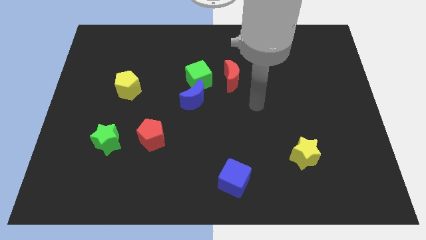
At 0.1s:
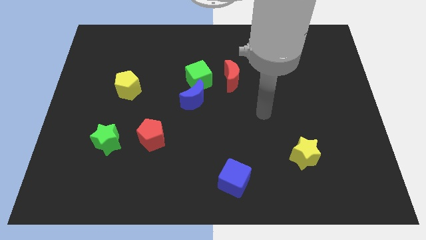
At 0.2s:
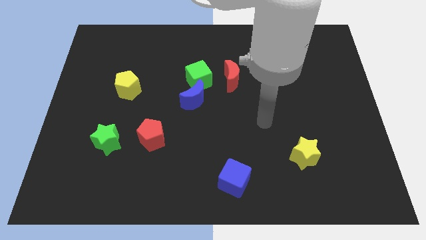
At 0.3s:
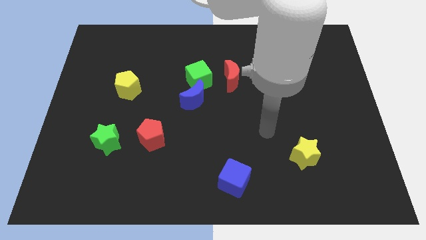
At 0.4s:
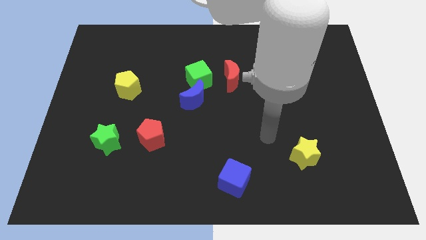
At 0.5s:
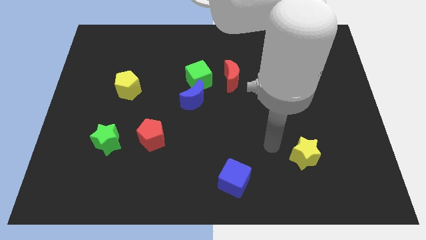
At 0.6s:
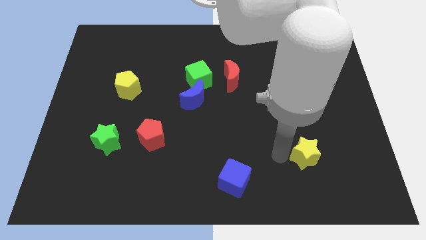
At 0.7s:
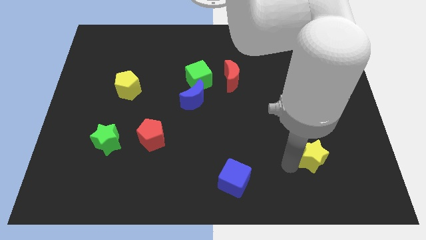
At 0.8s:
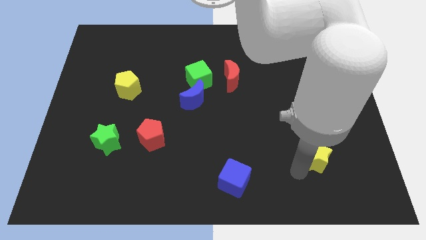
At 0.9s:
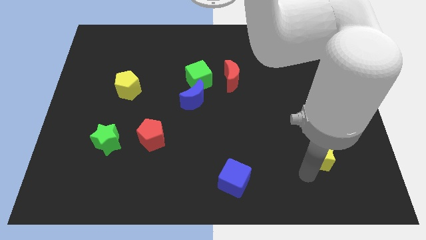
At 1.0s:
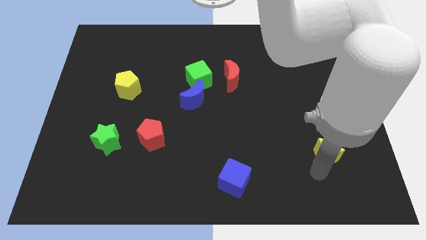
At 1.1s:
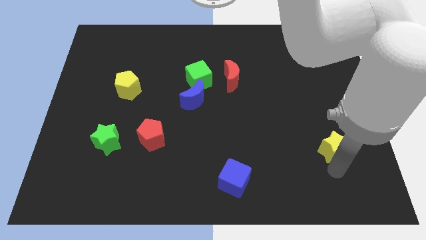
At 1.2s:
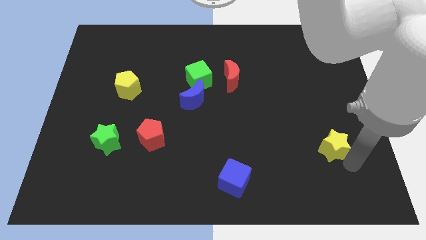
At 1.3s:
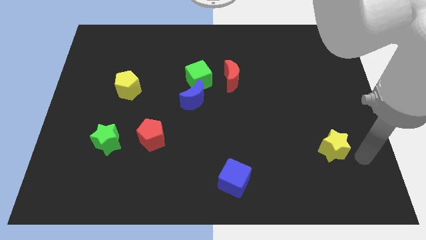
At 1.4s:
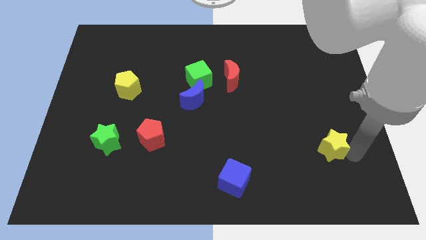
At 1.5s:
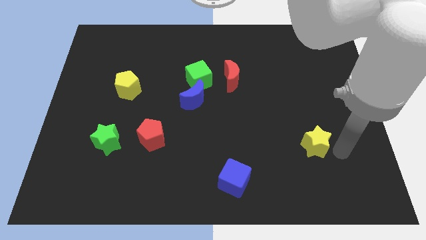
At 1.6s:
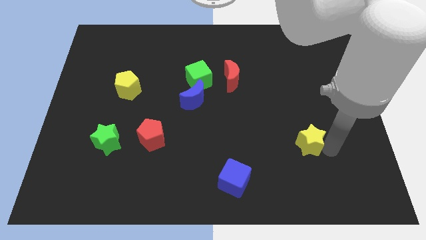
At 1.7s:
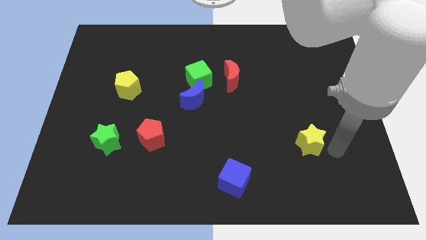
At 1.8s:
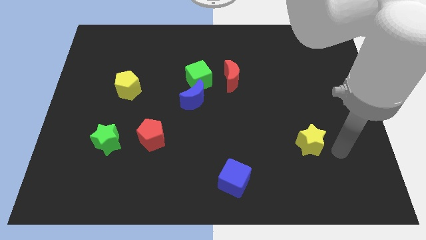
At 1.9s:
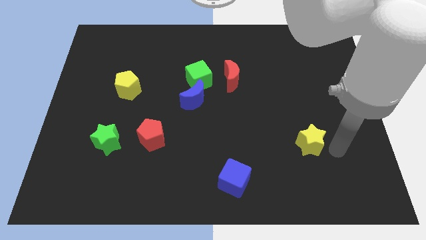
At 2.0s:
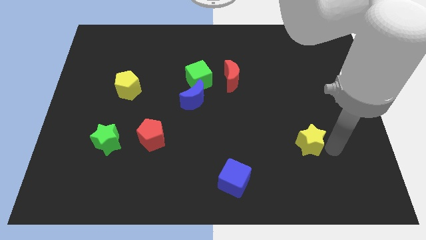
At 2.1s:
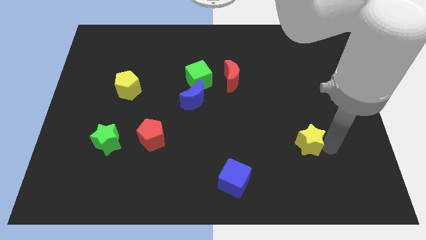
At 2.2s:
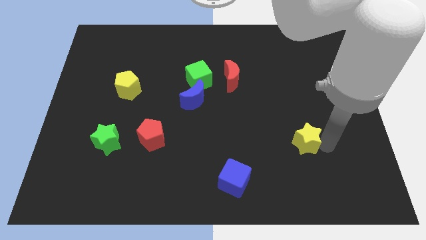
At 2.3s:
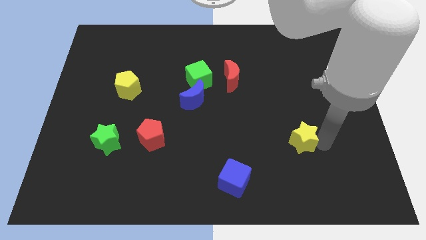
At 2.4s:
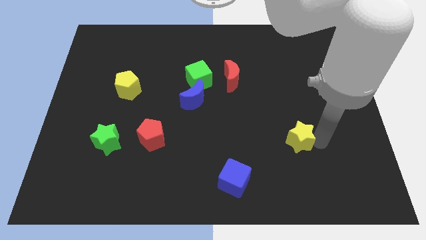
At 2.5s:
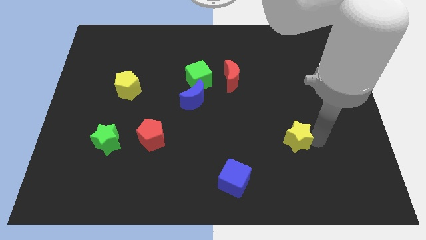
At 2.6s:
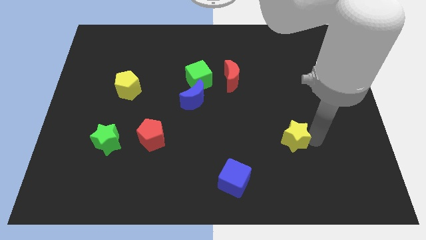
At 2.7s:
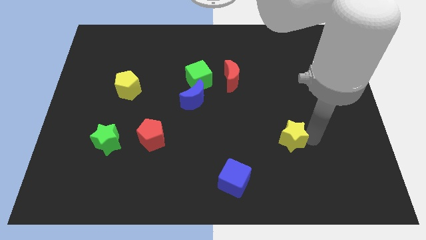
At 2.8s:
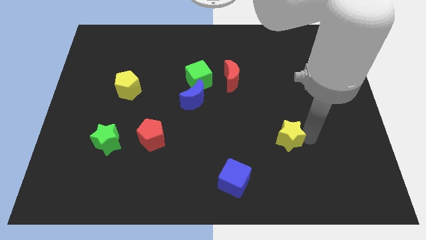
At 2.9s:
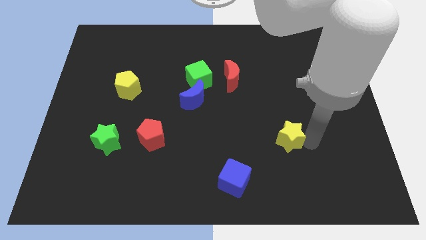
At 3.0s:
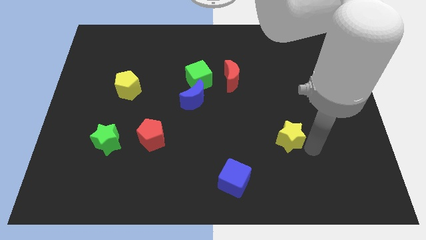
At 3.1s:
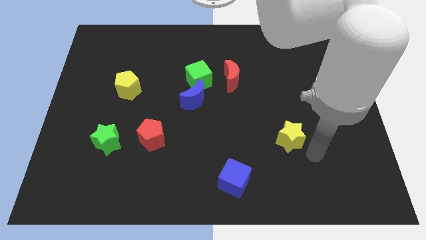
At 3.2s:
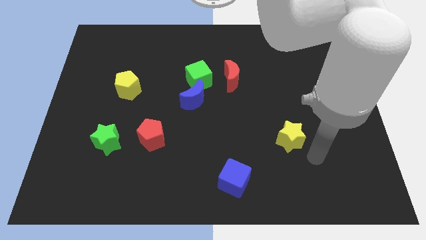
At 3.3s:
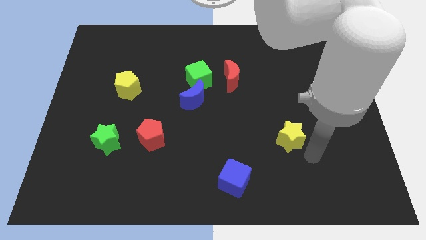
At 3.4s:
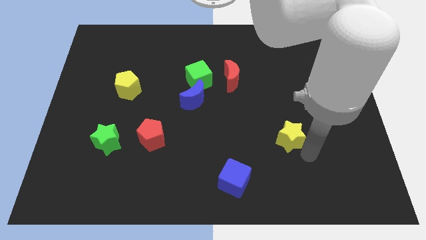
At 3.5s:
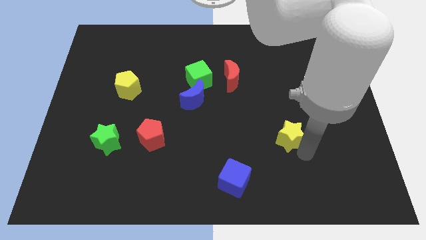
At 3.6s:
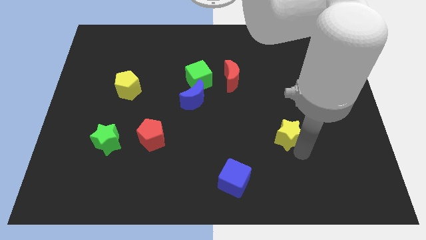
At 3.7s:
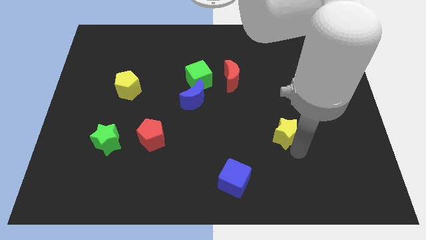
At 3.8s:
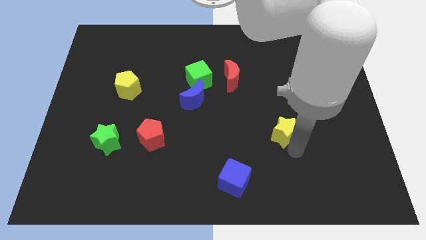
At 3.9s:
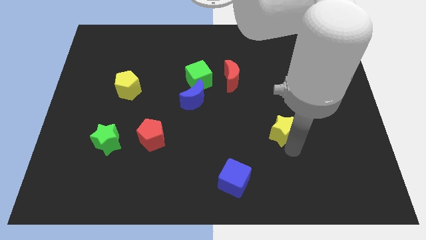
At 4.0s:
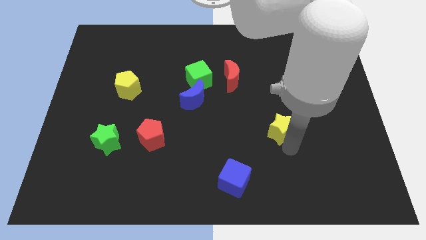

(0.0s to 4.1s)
move the yellow star a bit upwards and to the left

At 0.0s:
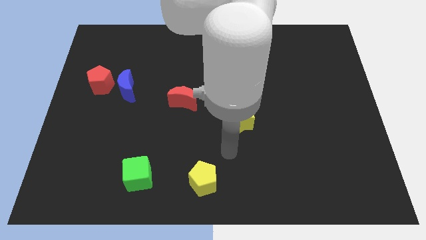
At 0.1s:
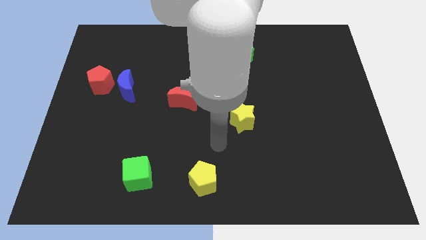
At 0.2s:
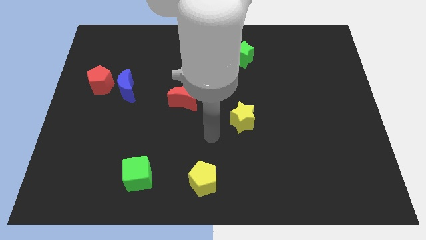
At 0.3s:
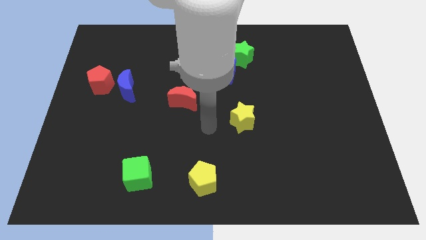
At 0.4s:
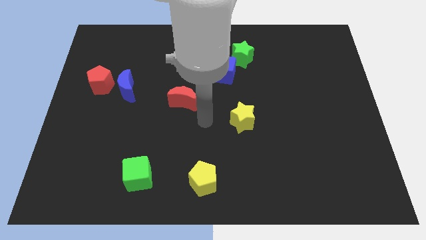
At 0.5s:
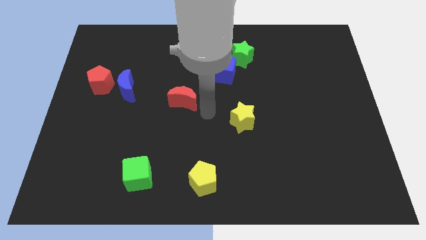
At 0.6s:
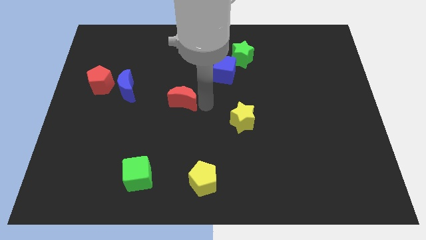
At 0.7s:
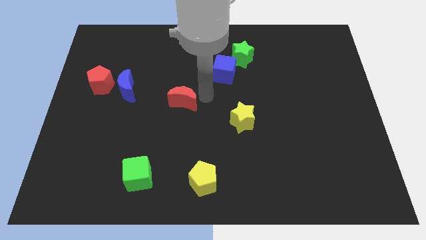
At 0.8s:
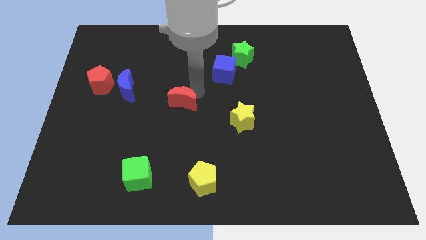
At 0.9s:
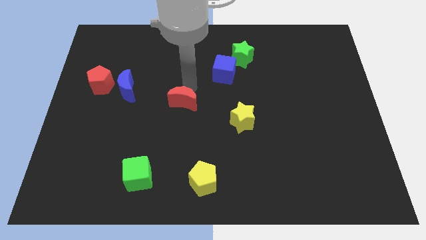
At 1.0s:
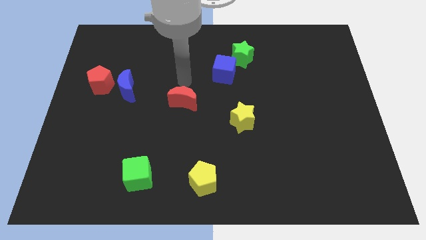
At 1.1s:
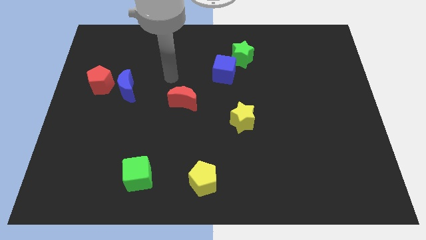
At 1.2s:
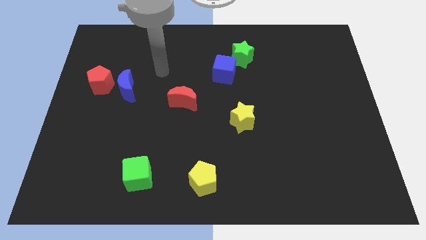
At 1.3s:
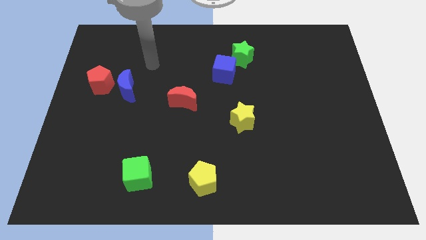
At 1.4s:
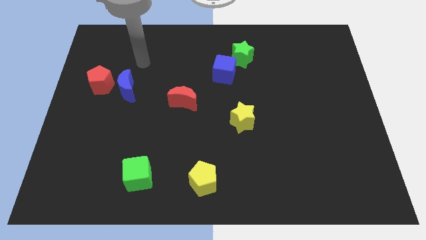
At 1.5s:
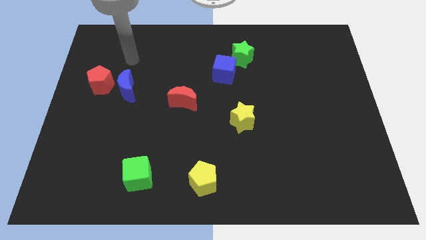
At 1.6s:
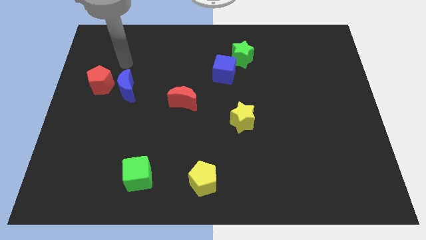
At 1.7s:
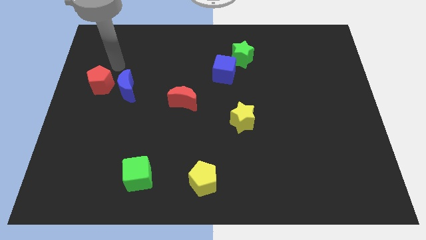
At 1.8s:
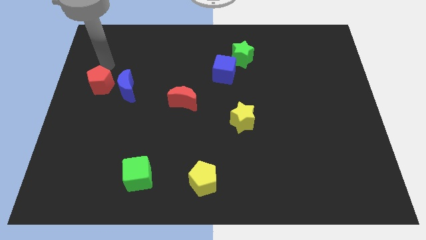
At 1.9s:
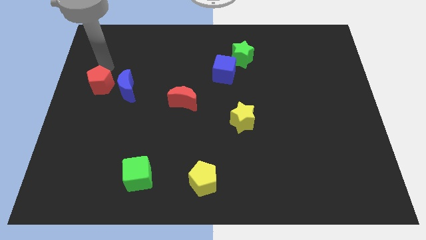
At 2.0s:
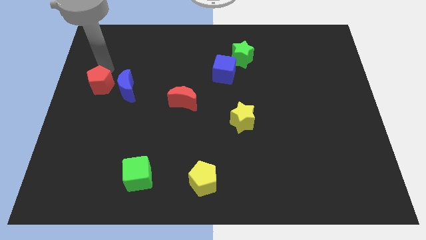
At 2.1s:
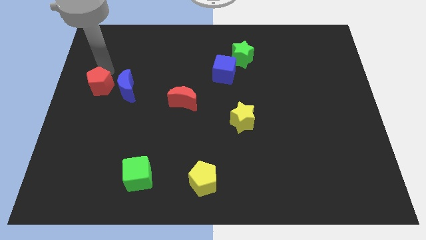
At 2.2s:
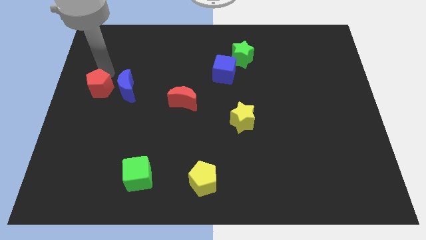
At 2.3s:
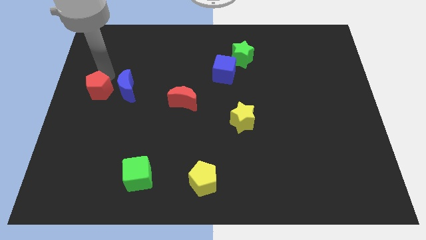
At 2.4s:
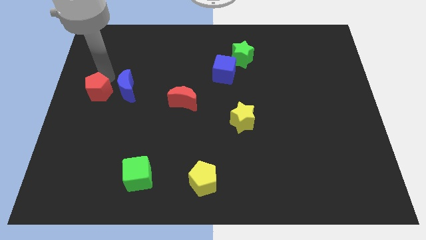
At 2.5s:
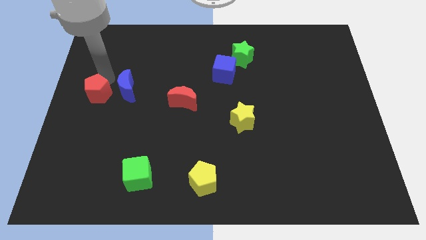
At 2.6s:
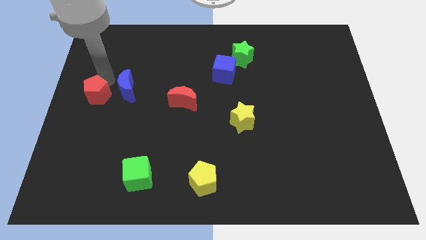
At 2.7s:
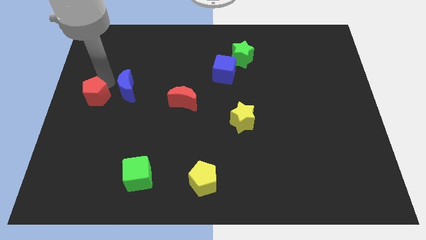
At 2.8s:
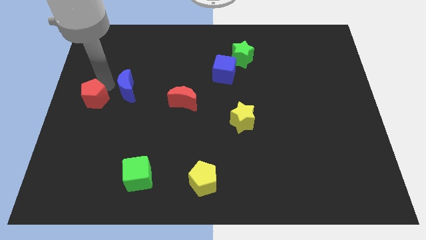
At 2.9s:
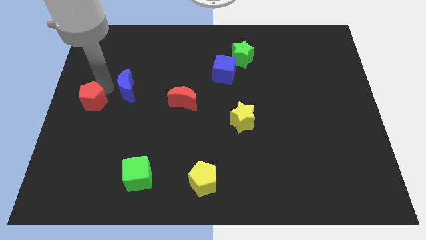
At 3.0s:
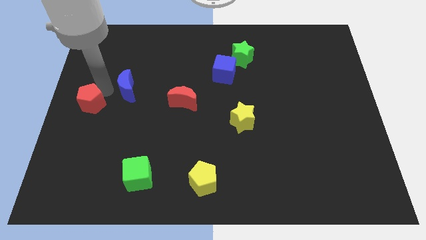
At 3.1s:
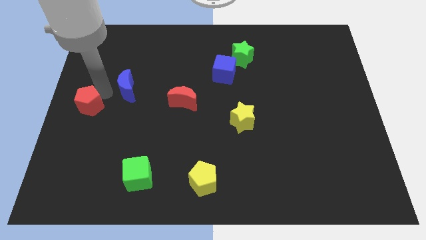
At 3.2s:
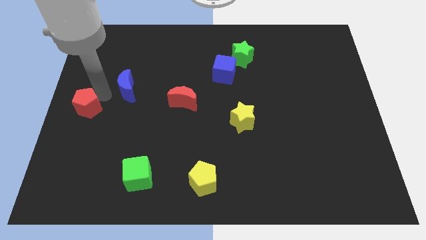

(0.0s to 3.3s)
push the red pentagon slightly down

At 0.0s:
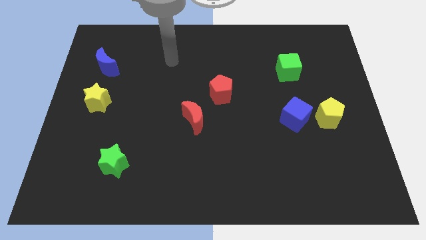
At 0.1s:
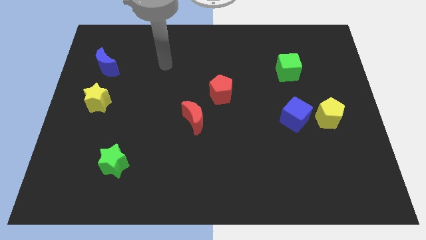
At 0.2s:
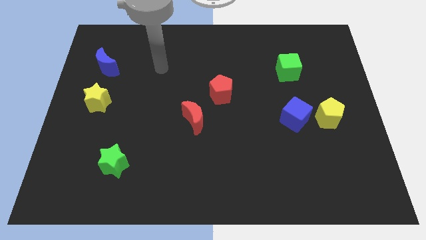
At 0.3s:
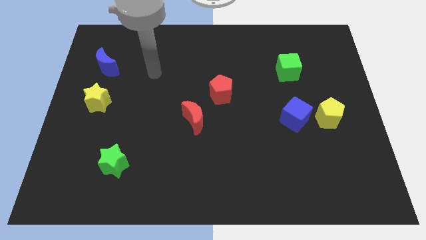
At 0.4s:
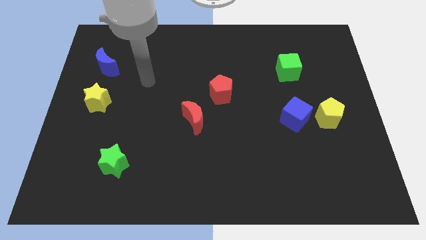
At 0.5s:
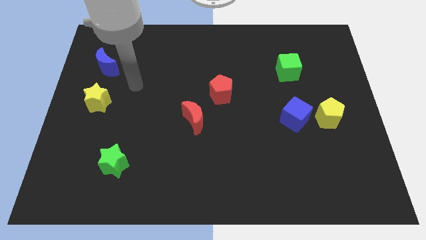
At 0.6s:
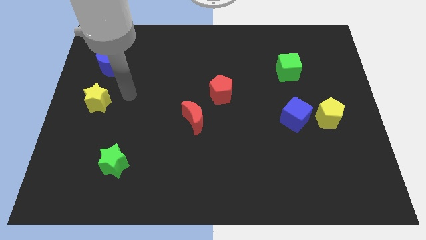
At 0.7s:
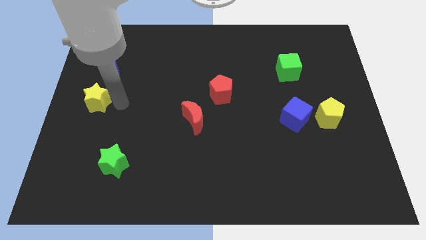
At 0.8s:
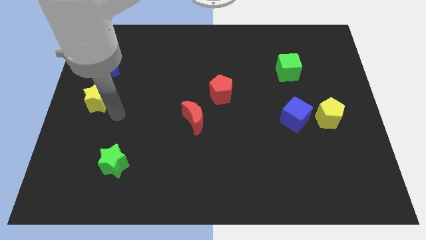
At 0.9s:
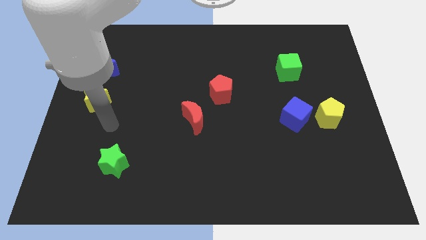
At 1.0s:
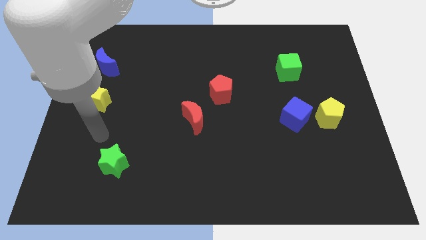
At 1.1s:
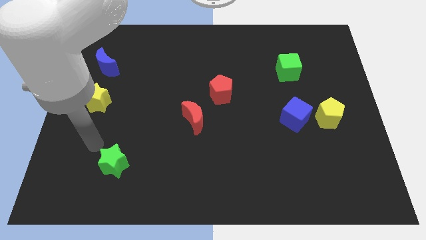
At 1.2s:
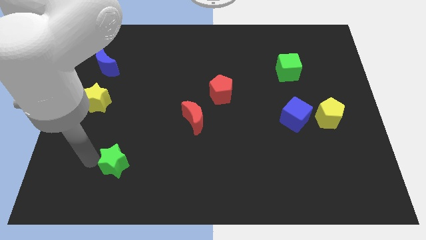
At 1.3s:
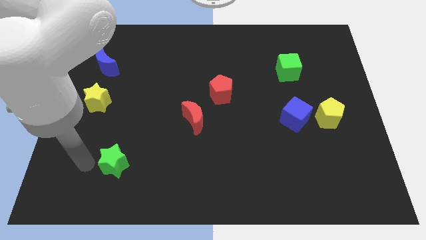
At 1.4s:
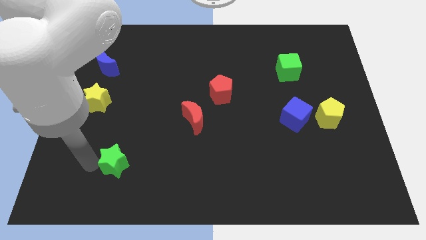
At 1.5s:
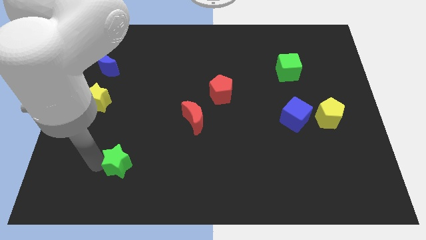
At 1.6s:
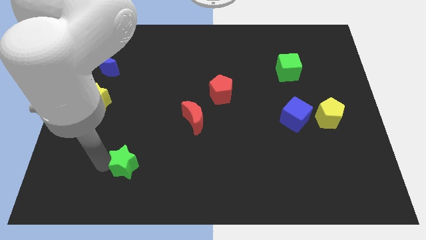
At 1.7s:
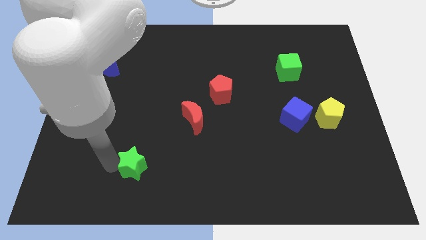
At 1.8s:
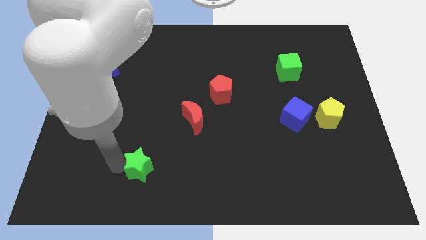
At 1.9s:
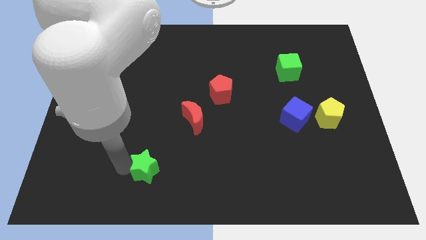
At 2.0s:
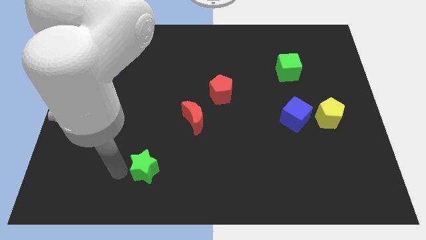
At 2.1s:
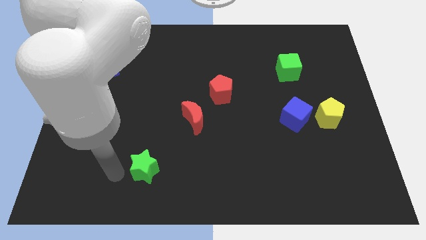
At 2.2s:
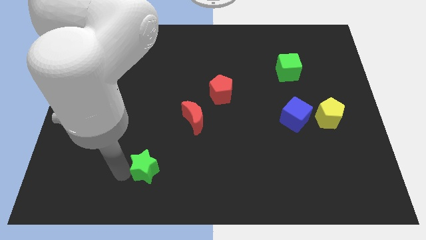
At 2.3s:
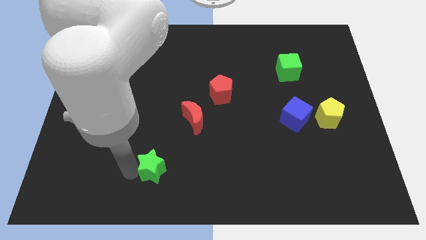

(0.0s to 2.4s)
slightly slide the green star to the right
